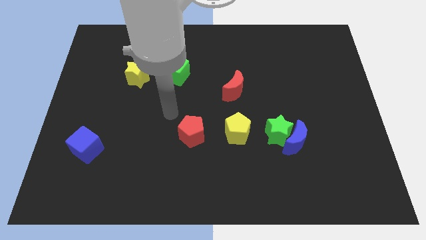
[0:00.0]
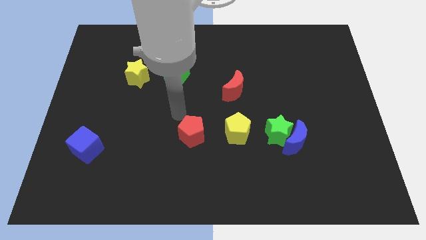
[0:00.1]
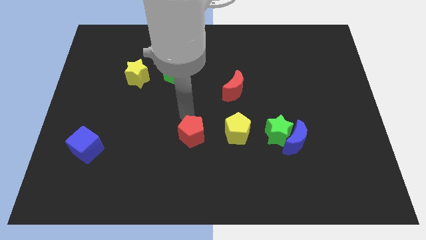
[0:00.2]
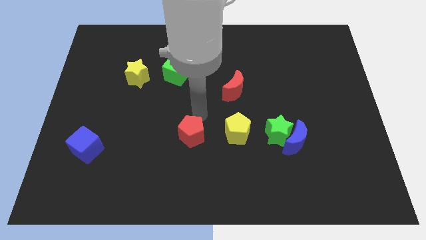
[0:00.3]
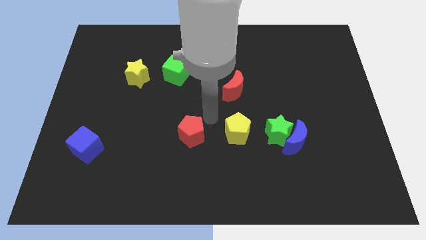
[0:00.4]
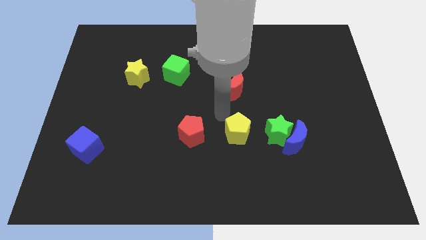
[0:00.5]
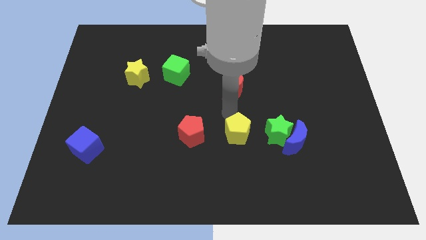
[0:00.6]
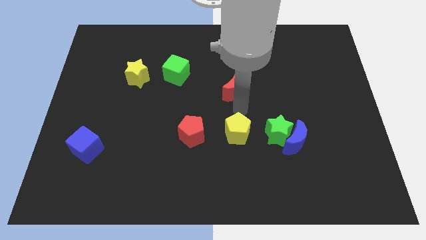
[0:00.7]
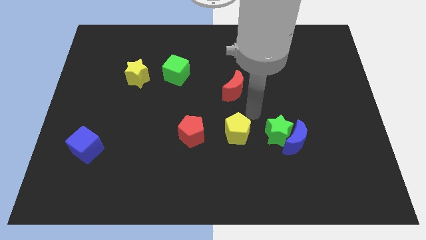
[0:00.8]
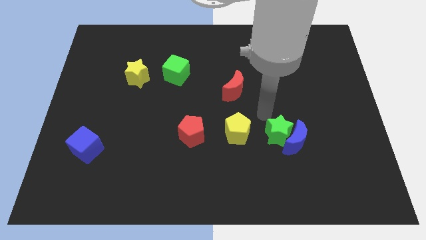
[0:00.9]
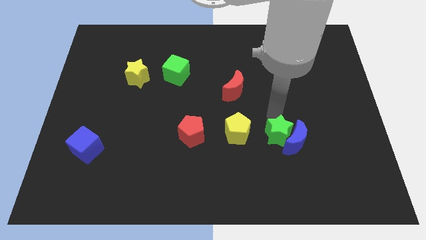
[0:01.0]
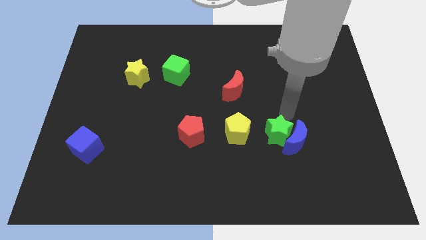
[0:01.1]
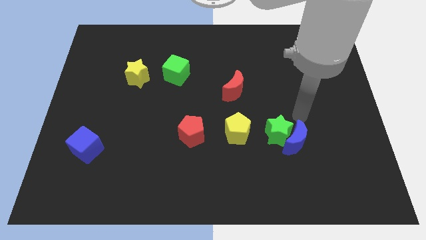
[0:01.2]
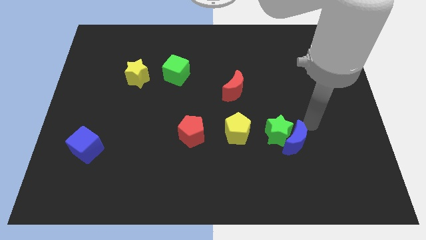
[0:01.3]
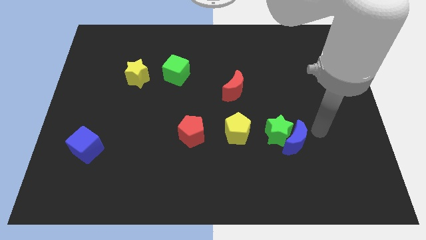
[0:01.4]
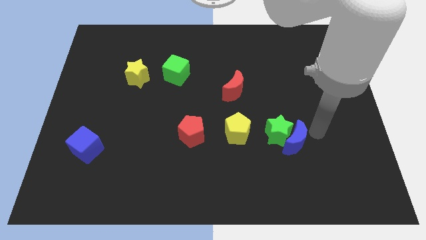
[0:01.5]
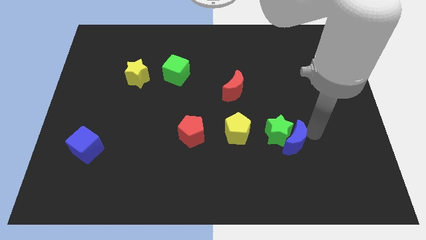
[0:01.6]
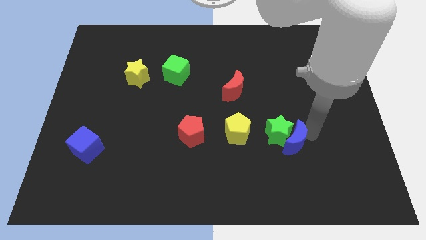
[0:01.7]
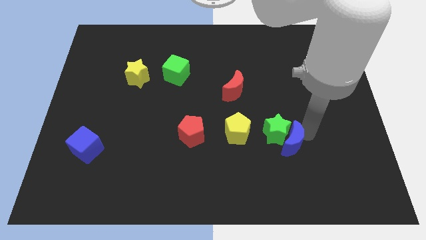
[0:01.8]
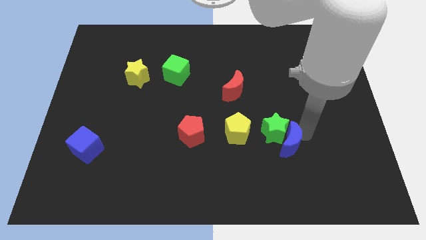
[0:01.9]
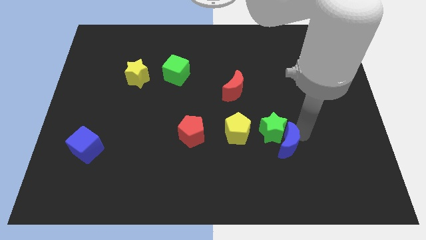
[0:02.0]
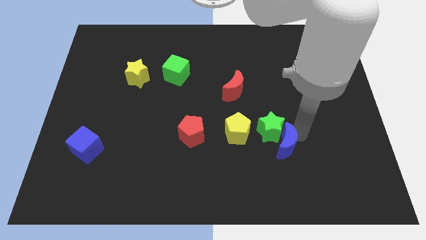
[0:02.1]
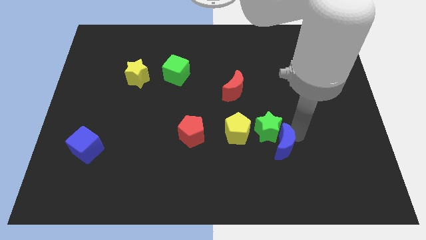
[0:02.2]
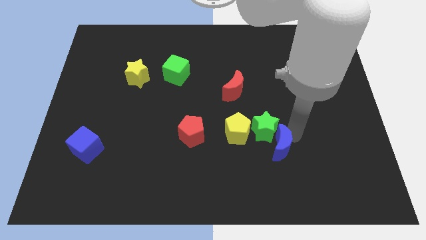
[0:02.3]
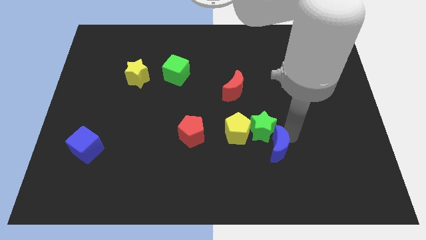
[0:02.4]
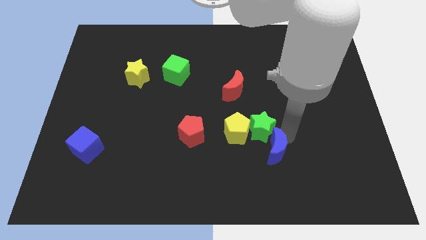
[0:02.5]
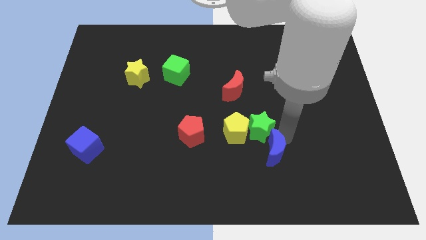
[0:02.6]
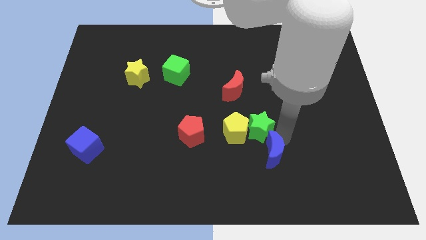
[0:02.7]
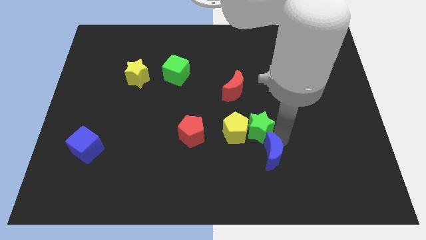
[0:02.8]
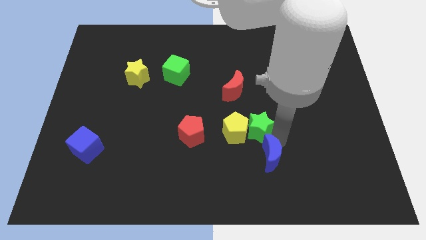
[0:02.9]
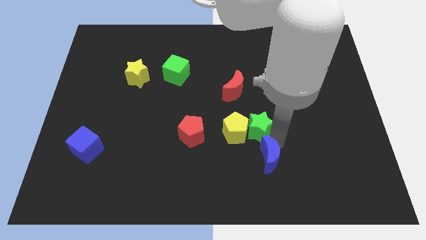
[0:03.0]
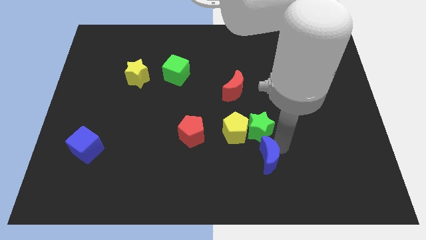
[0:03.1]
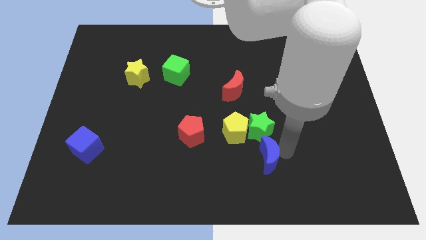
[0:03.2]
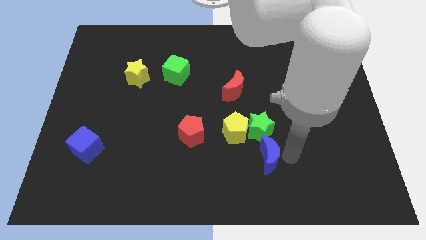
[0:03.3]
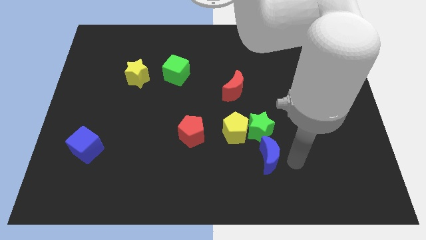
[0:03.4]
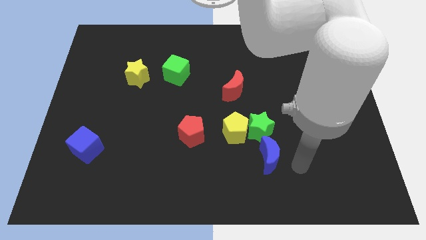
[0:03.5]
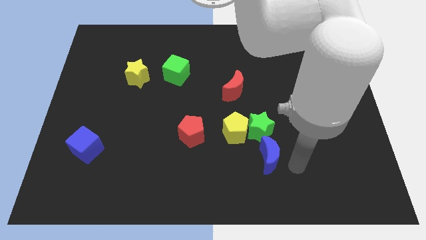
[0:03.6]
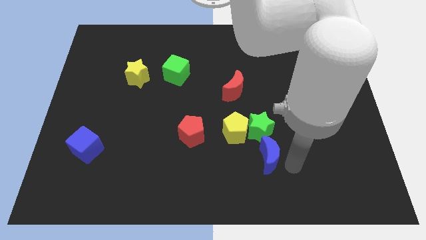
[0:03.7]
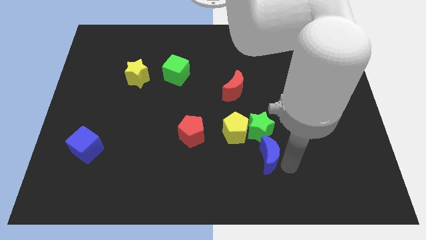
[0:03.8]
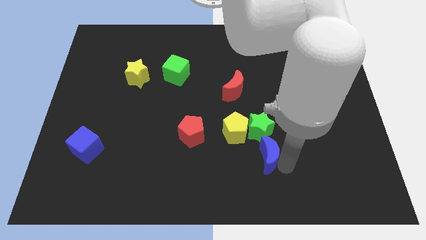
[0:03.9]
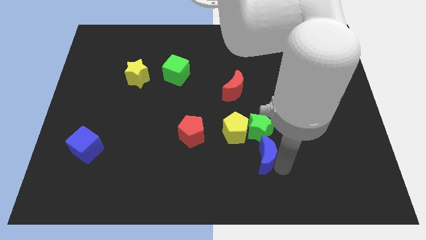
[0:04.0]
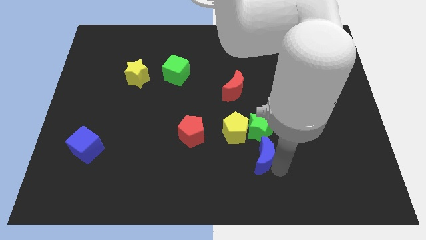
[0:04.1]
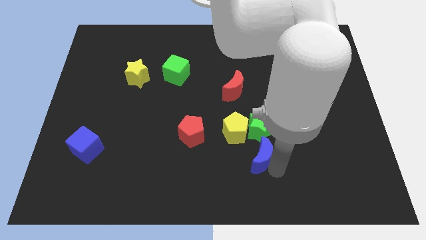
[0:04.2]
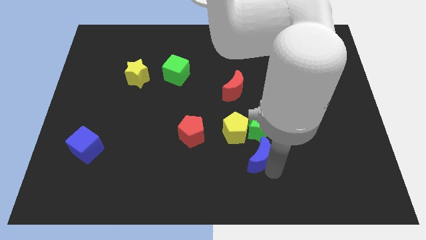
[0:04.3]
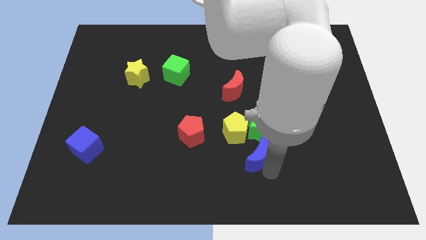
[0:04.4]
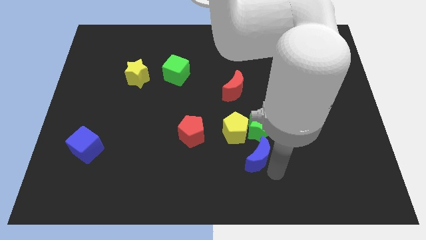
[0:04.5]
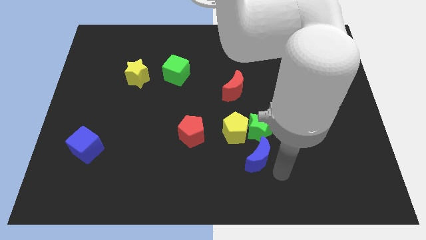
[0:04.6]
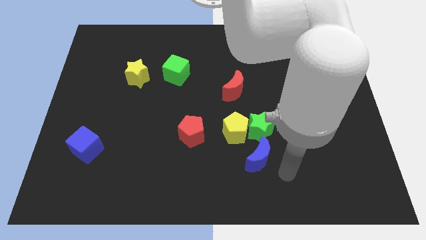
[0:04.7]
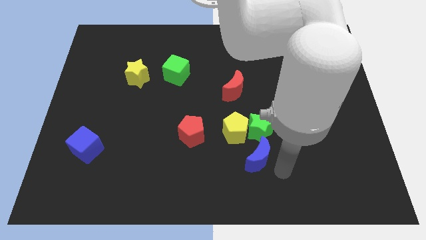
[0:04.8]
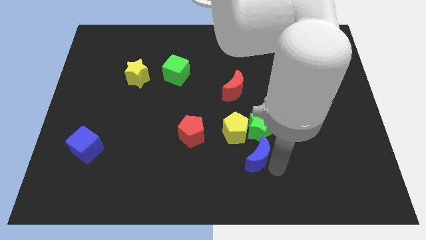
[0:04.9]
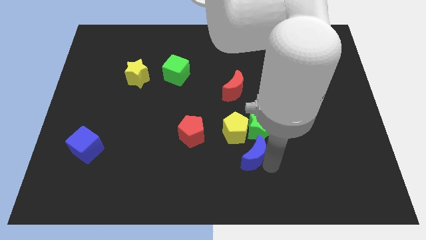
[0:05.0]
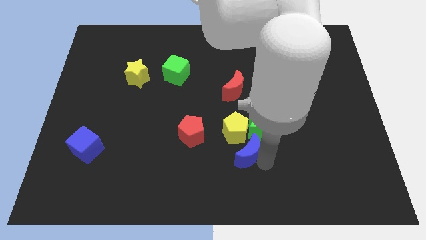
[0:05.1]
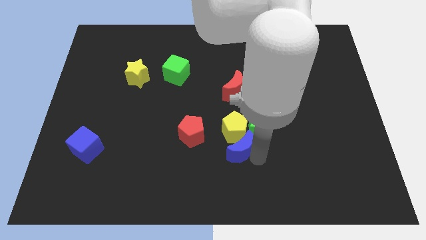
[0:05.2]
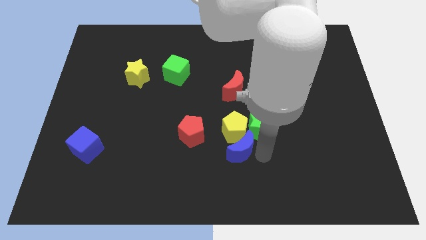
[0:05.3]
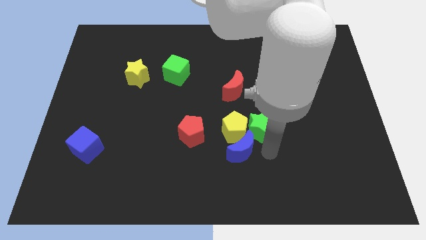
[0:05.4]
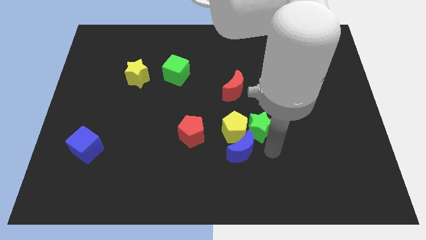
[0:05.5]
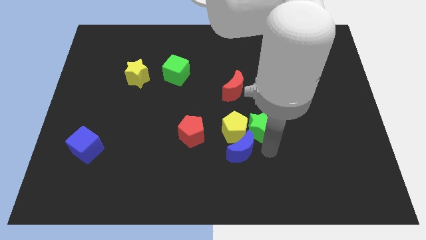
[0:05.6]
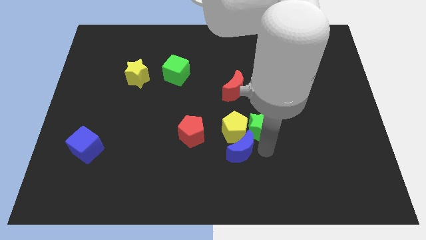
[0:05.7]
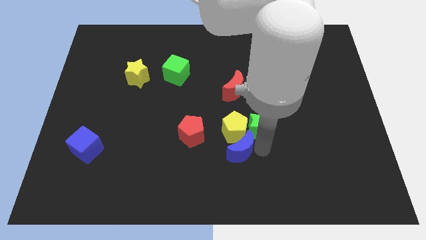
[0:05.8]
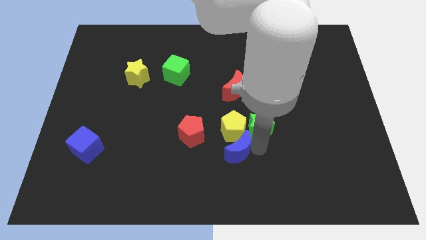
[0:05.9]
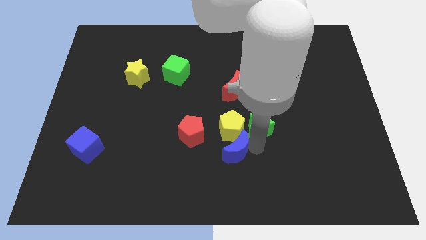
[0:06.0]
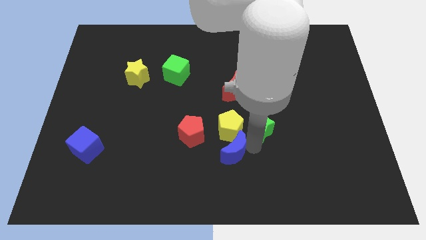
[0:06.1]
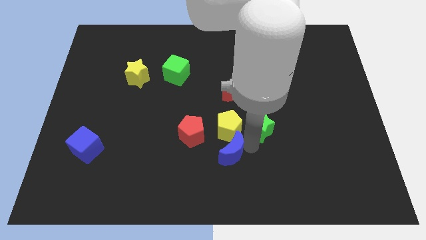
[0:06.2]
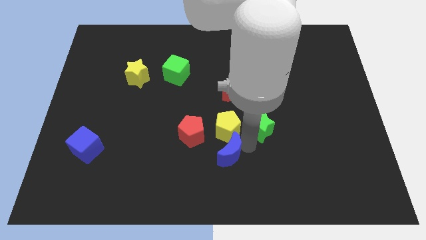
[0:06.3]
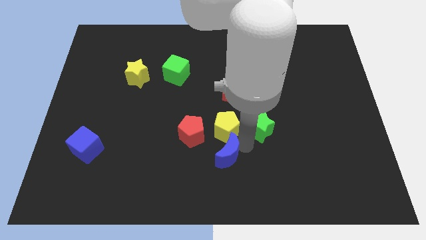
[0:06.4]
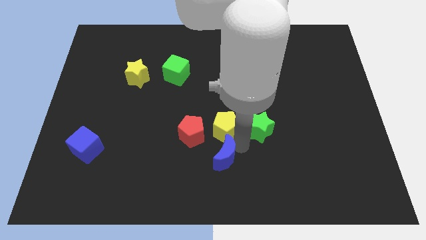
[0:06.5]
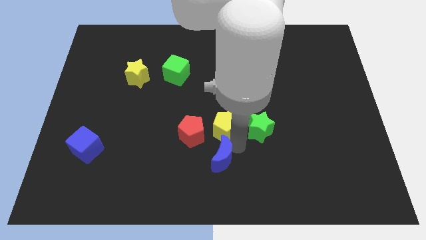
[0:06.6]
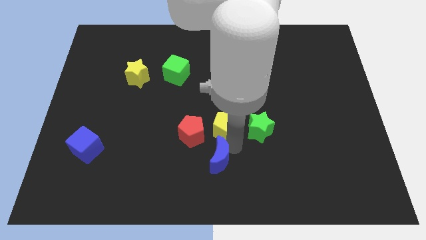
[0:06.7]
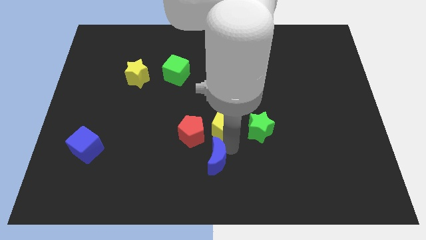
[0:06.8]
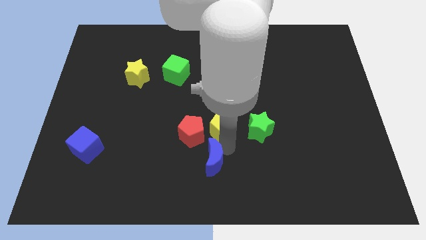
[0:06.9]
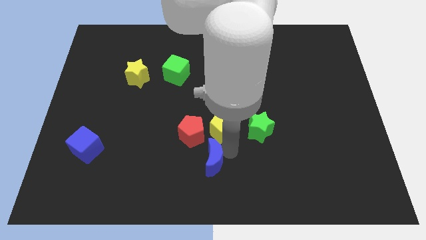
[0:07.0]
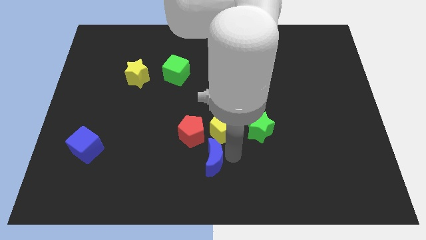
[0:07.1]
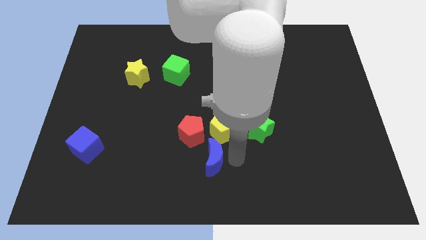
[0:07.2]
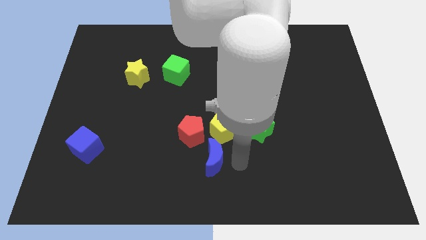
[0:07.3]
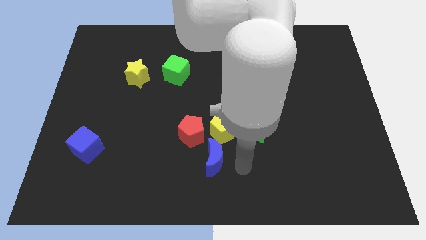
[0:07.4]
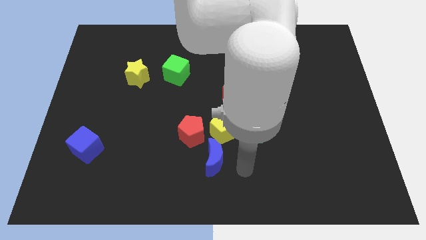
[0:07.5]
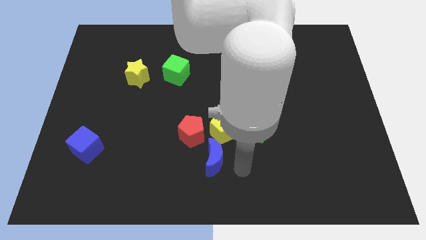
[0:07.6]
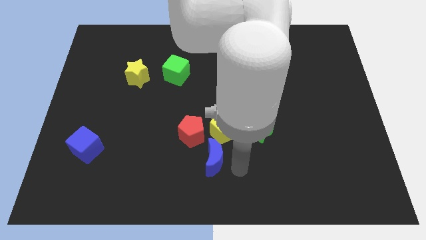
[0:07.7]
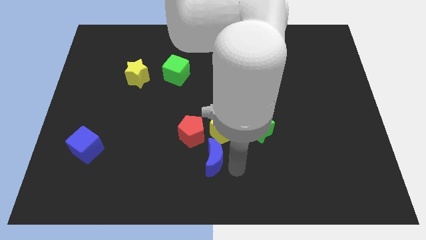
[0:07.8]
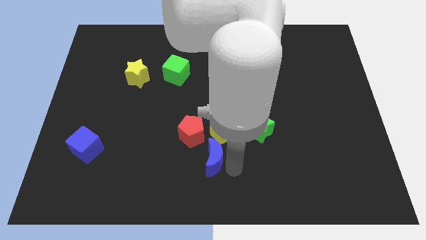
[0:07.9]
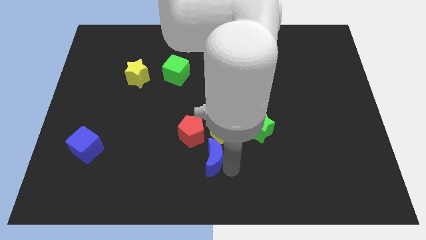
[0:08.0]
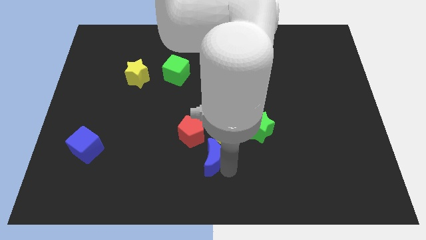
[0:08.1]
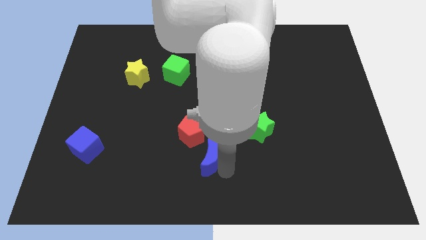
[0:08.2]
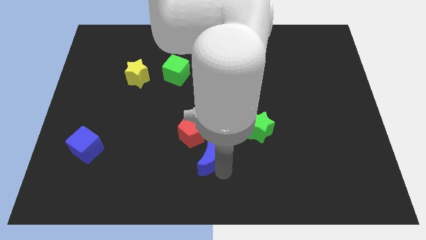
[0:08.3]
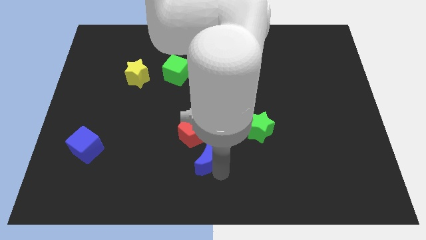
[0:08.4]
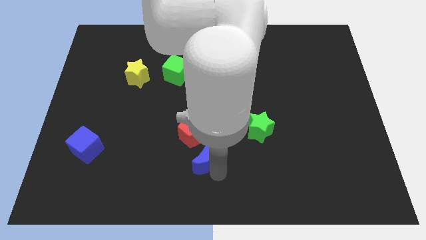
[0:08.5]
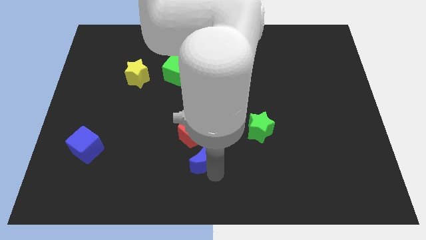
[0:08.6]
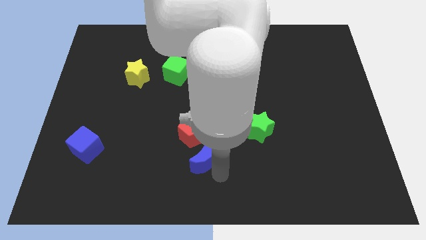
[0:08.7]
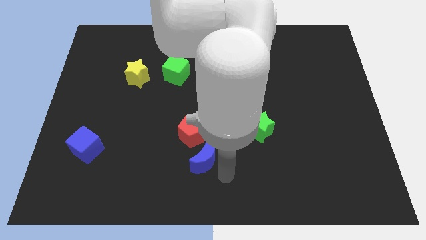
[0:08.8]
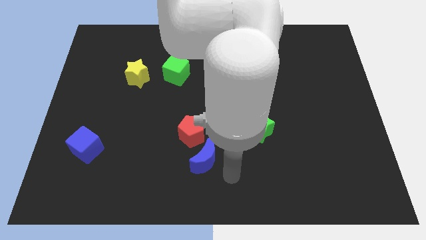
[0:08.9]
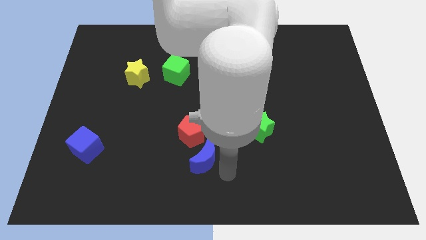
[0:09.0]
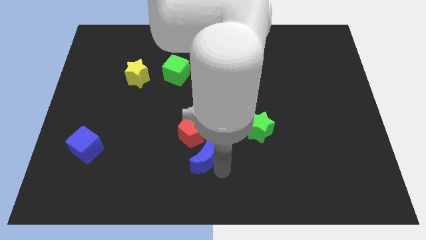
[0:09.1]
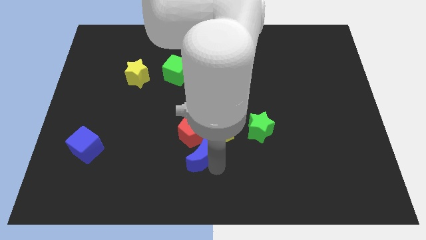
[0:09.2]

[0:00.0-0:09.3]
push the blue moon left
